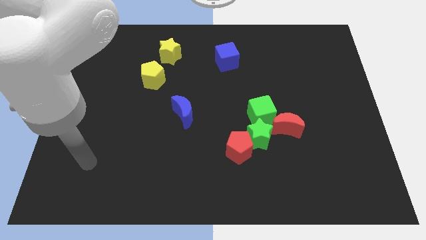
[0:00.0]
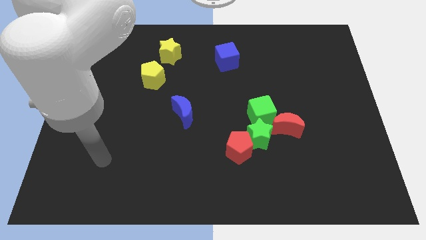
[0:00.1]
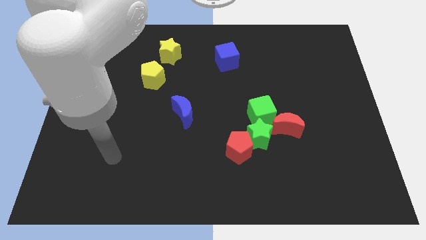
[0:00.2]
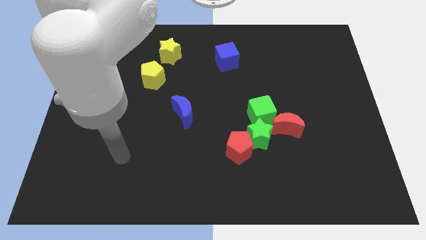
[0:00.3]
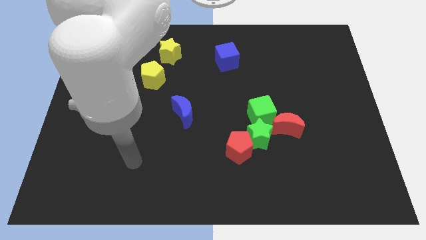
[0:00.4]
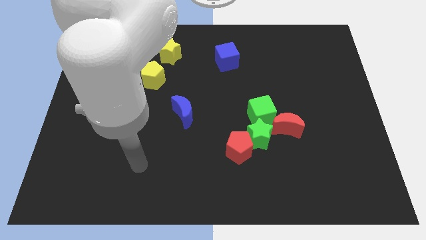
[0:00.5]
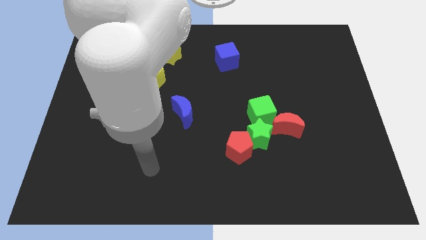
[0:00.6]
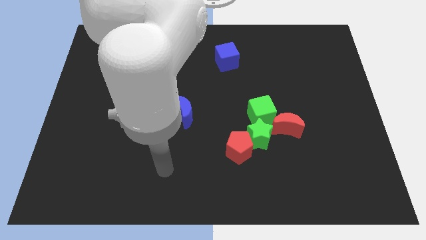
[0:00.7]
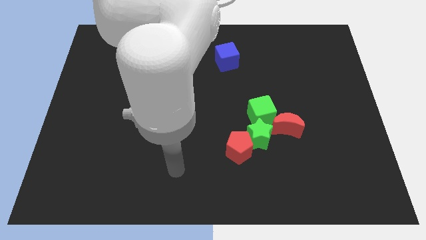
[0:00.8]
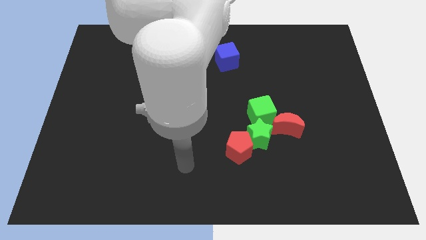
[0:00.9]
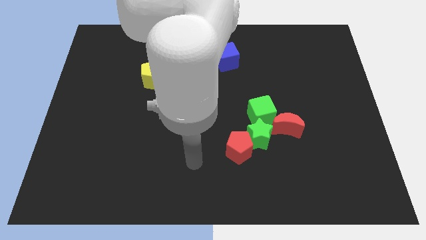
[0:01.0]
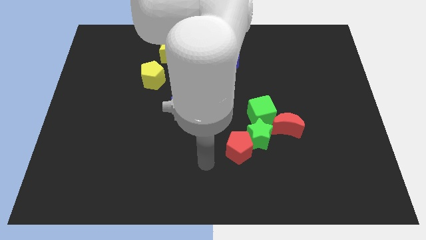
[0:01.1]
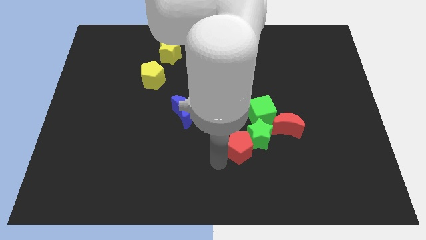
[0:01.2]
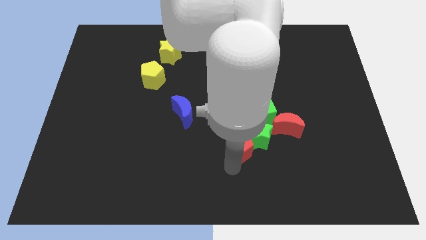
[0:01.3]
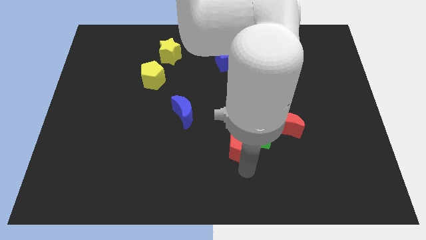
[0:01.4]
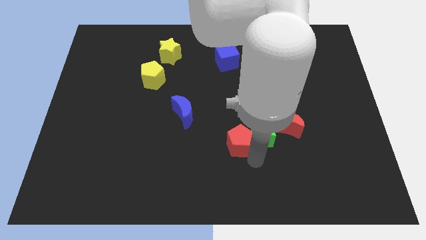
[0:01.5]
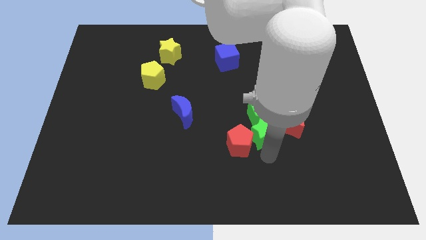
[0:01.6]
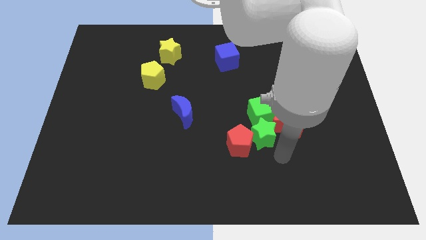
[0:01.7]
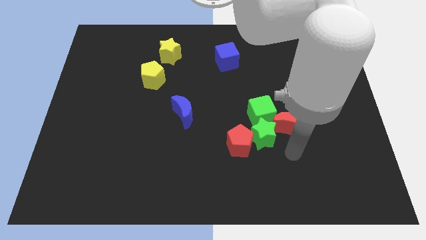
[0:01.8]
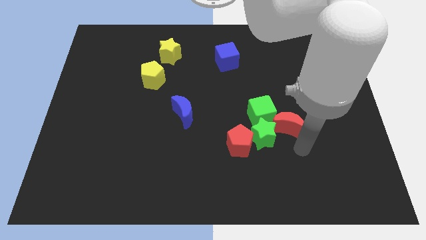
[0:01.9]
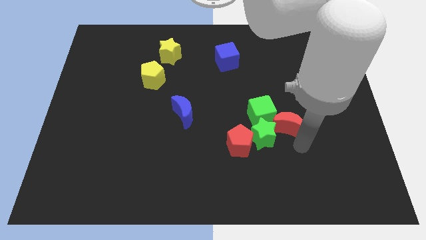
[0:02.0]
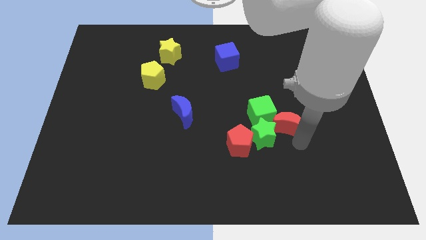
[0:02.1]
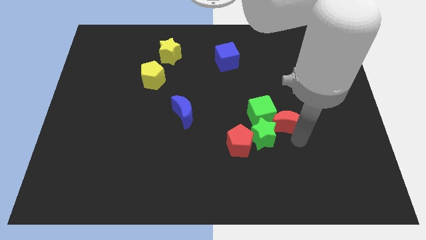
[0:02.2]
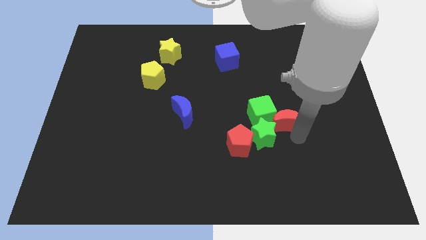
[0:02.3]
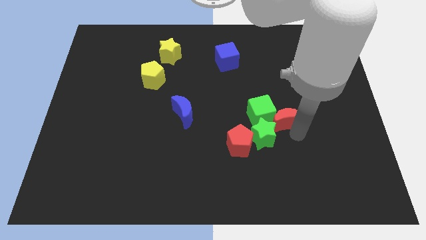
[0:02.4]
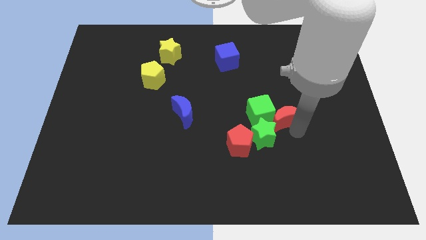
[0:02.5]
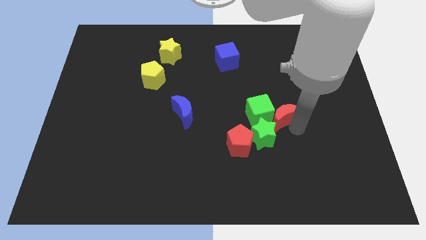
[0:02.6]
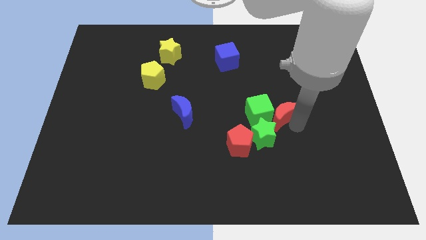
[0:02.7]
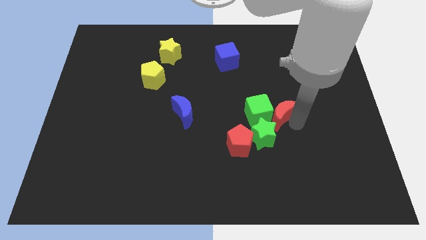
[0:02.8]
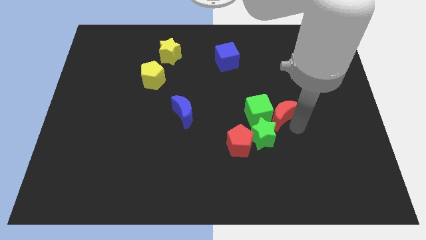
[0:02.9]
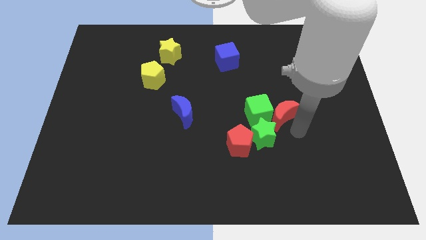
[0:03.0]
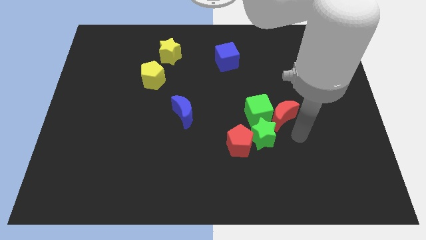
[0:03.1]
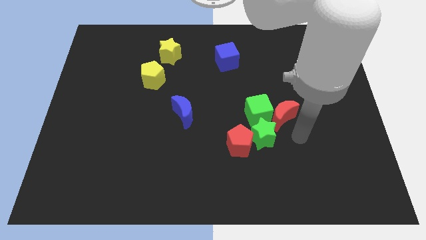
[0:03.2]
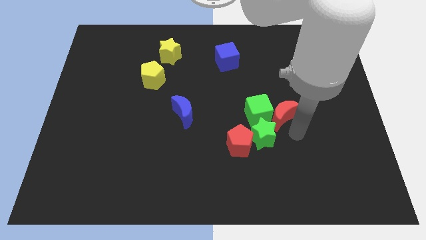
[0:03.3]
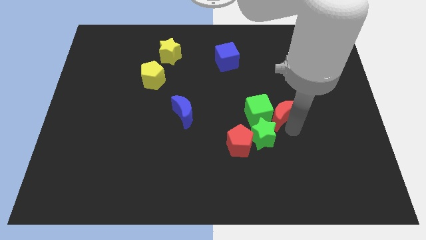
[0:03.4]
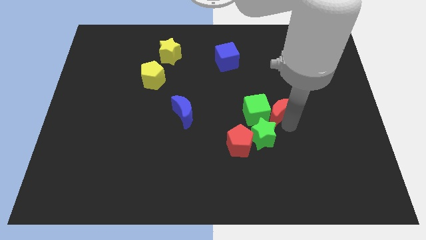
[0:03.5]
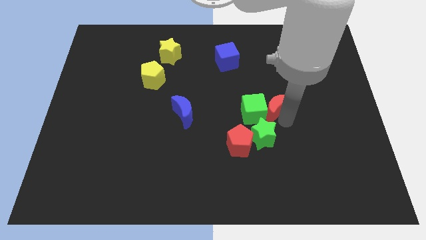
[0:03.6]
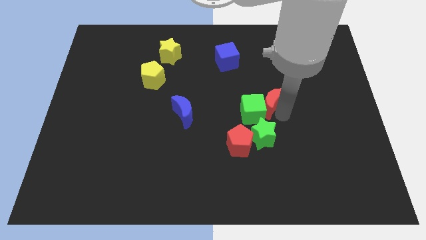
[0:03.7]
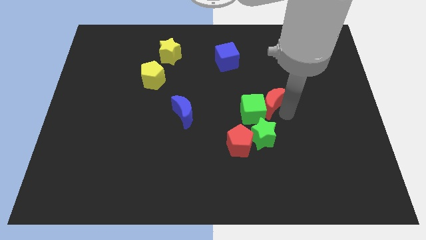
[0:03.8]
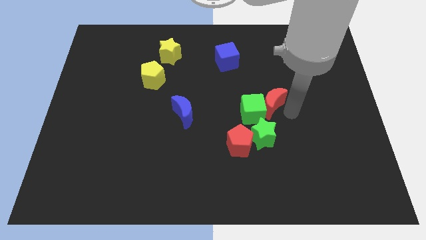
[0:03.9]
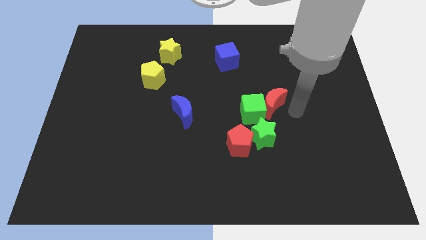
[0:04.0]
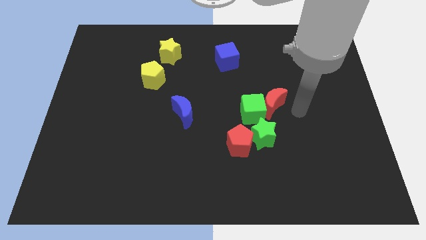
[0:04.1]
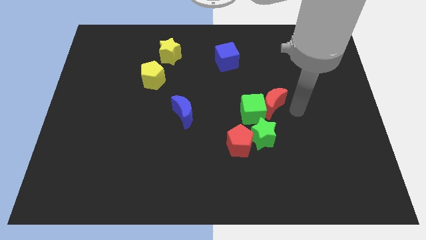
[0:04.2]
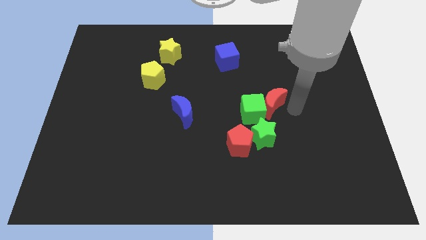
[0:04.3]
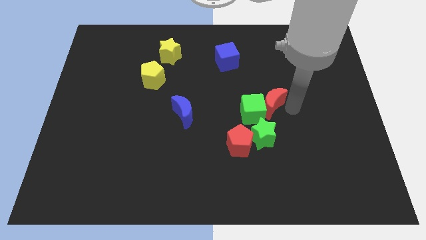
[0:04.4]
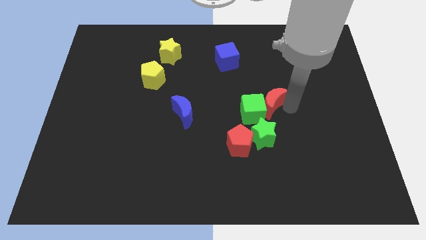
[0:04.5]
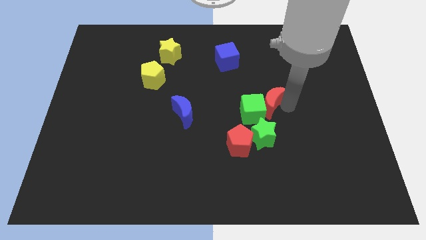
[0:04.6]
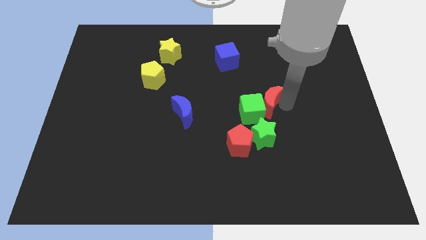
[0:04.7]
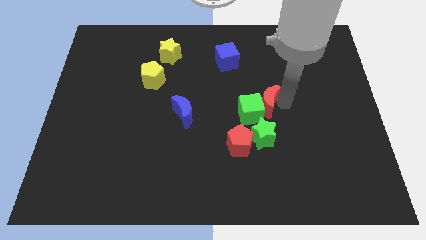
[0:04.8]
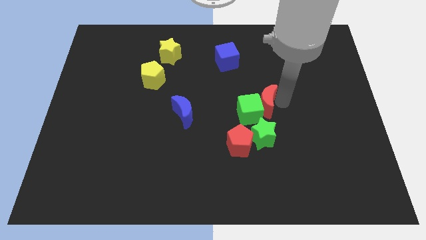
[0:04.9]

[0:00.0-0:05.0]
move the red moon to the middle
